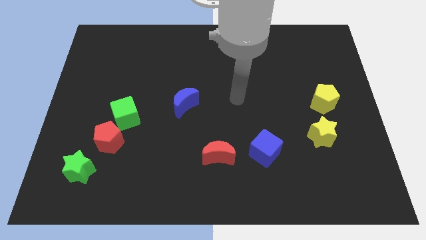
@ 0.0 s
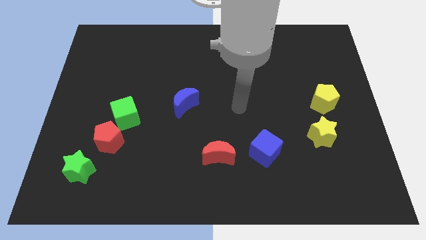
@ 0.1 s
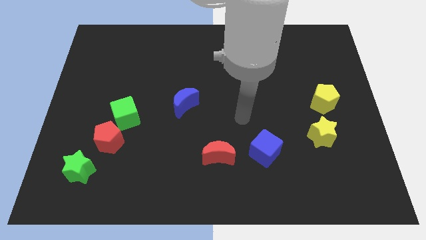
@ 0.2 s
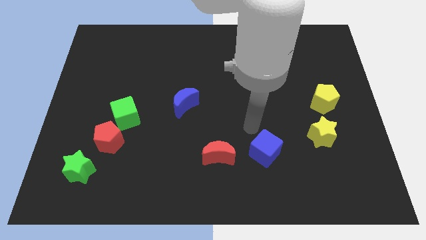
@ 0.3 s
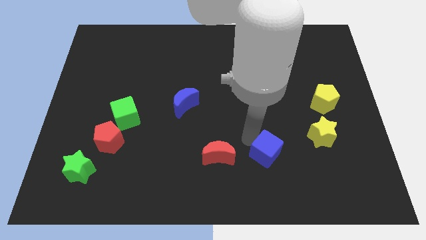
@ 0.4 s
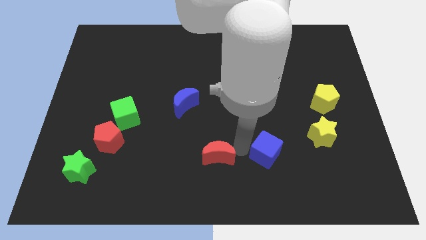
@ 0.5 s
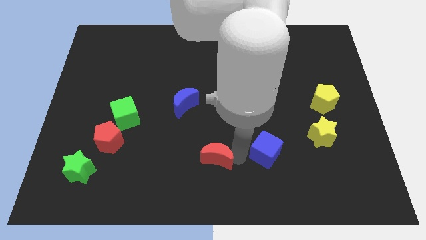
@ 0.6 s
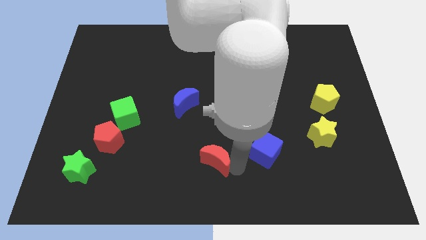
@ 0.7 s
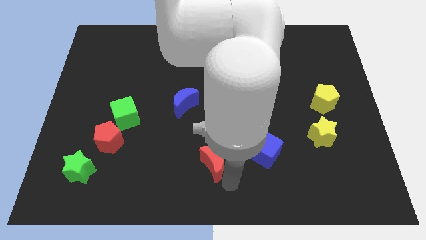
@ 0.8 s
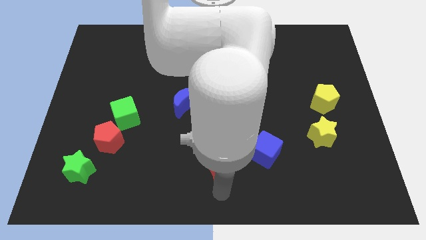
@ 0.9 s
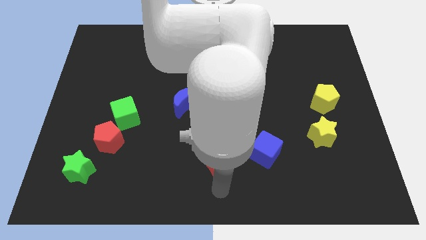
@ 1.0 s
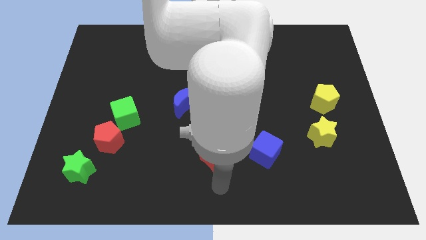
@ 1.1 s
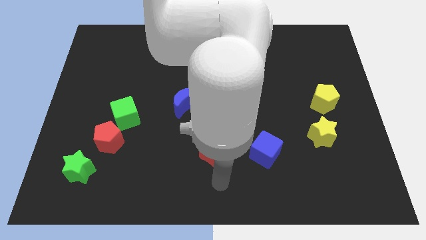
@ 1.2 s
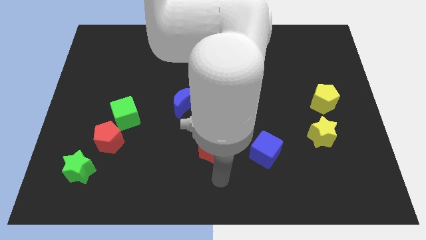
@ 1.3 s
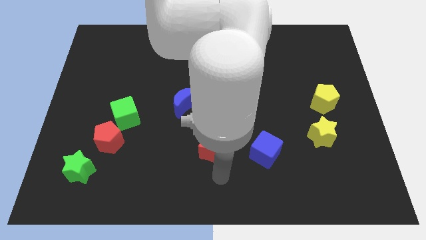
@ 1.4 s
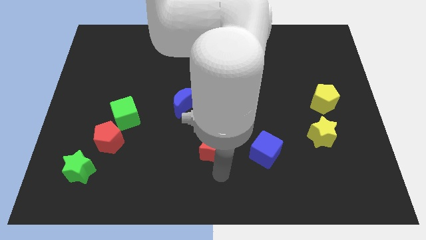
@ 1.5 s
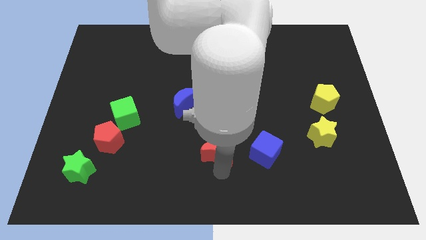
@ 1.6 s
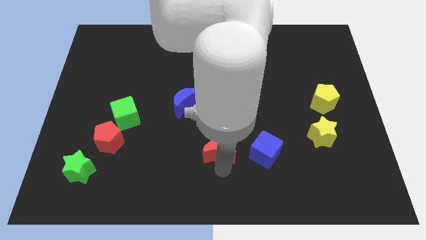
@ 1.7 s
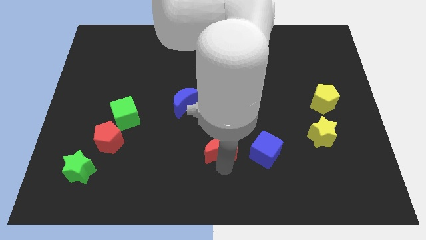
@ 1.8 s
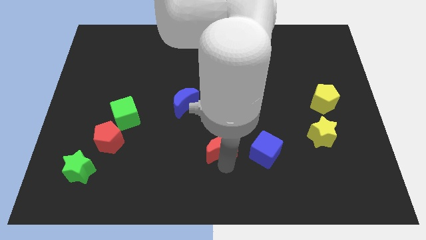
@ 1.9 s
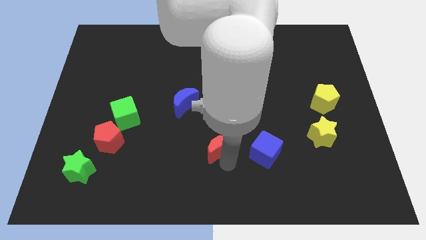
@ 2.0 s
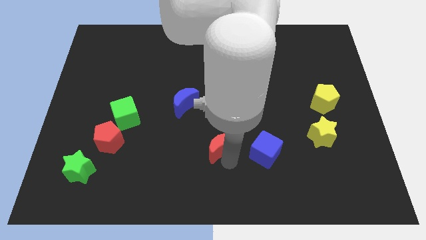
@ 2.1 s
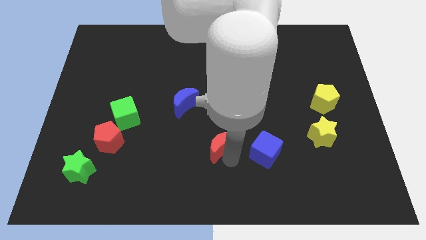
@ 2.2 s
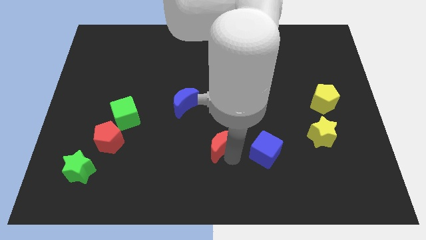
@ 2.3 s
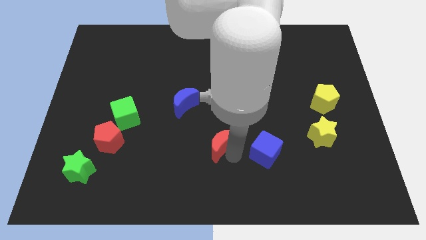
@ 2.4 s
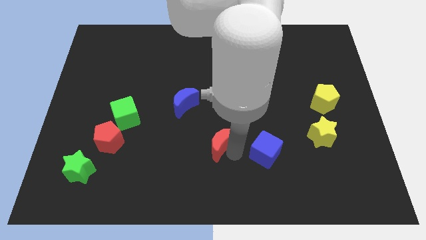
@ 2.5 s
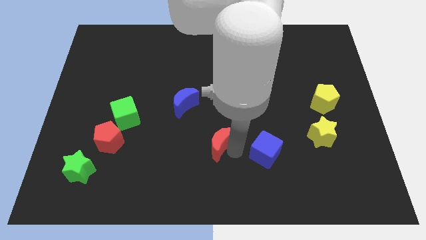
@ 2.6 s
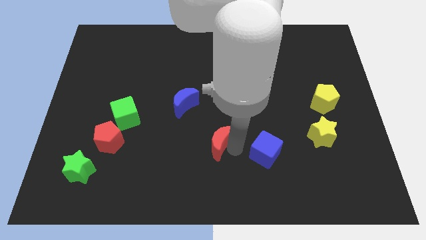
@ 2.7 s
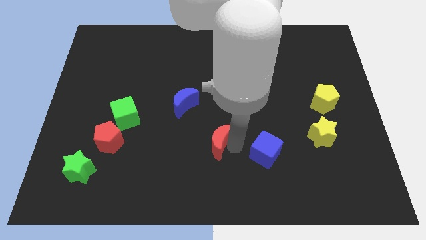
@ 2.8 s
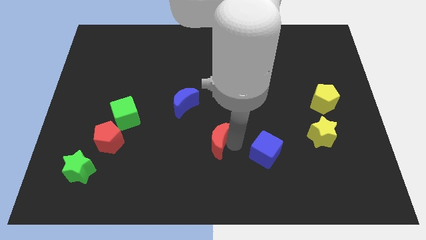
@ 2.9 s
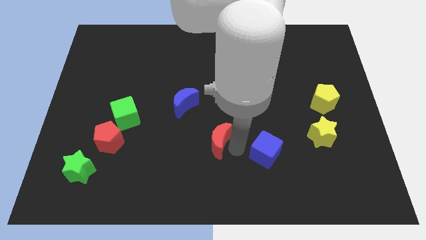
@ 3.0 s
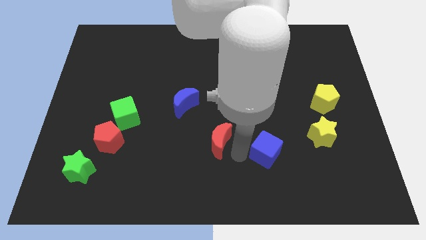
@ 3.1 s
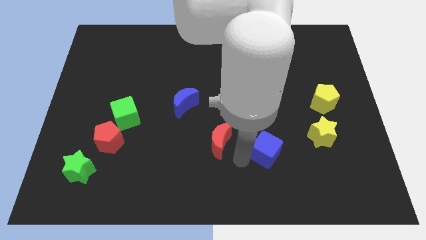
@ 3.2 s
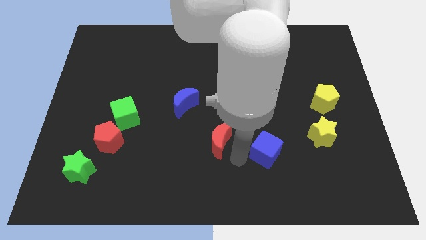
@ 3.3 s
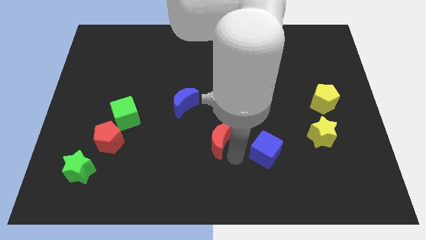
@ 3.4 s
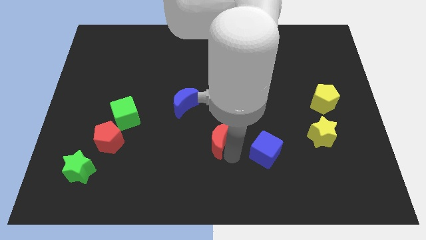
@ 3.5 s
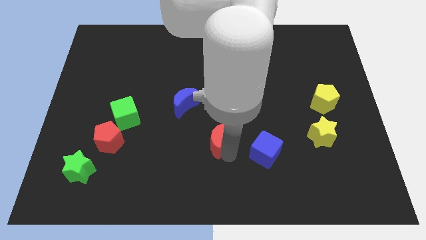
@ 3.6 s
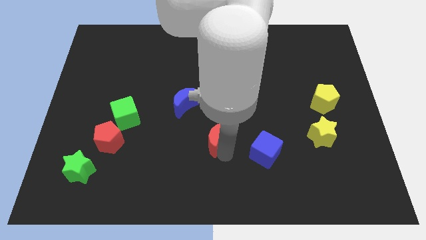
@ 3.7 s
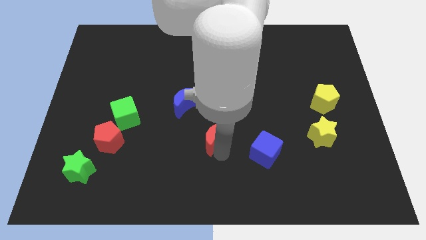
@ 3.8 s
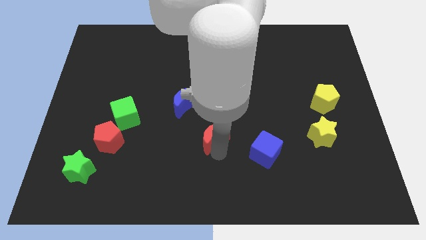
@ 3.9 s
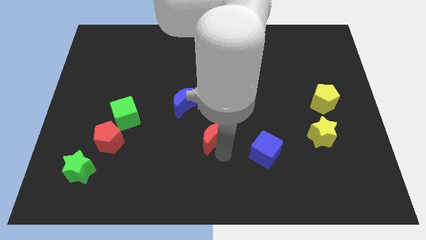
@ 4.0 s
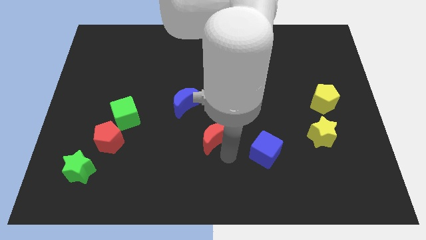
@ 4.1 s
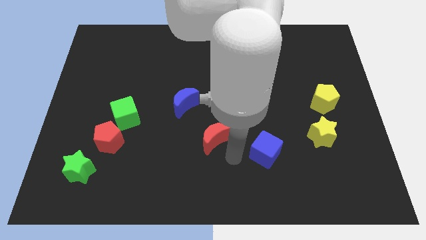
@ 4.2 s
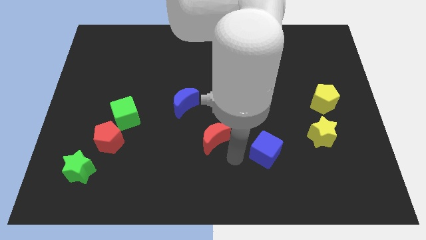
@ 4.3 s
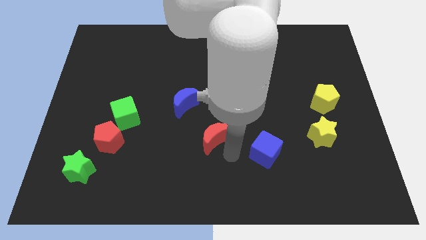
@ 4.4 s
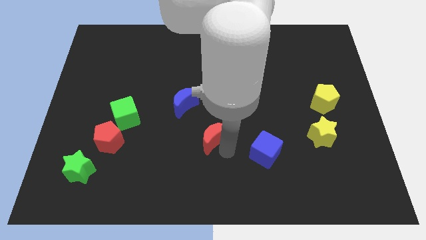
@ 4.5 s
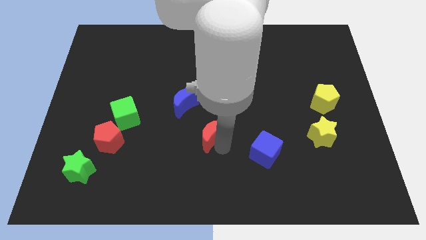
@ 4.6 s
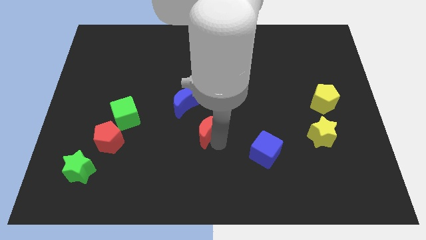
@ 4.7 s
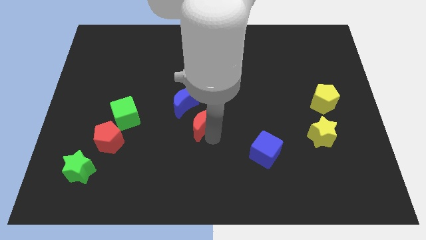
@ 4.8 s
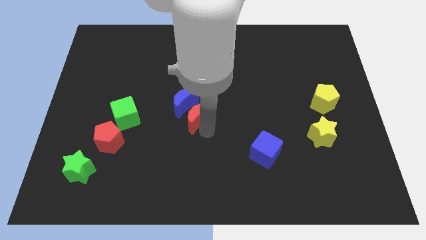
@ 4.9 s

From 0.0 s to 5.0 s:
put the red moon next to the blue moon

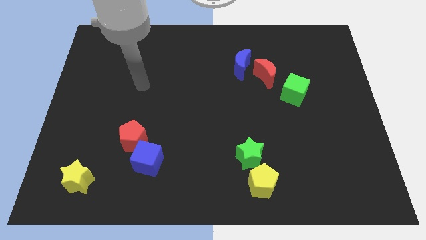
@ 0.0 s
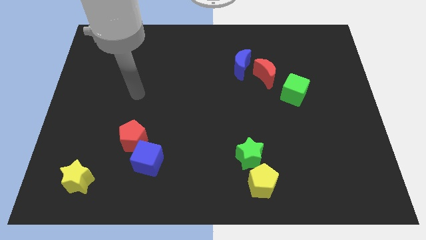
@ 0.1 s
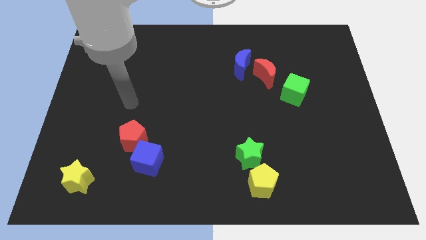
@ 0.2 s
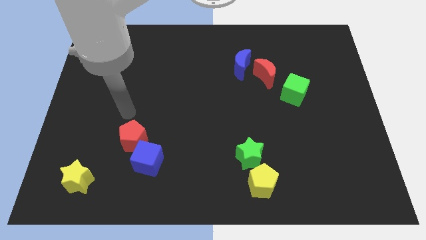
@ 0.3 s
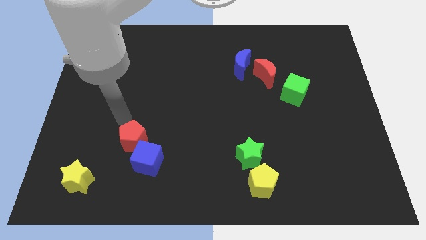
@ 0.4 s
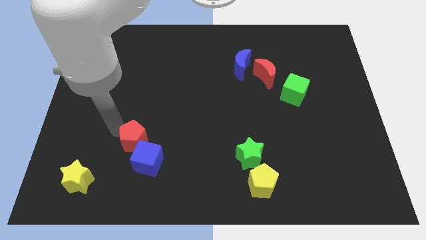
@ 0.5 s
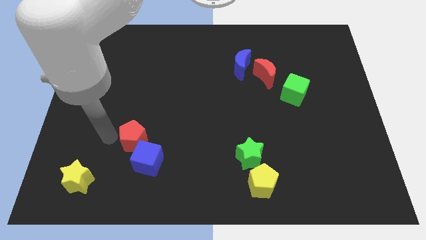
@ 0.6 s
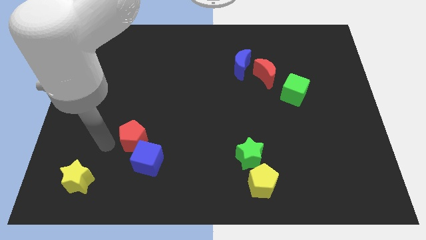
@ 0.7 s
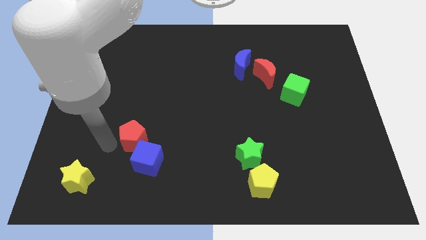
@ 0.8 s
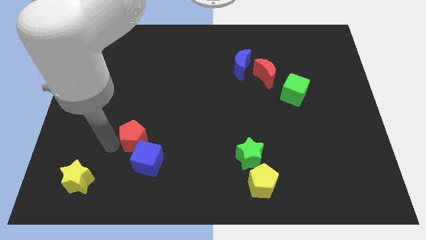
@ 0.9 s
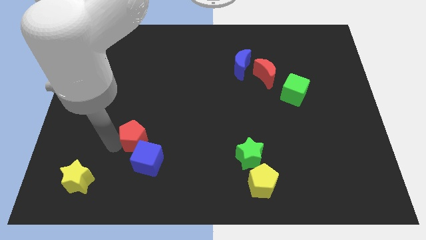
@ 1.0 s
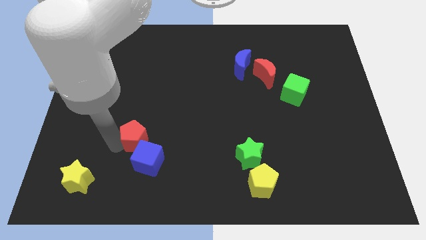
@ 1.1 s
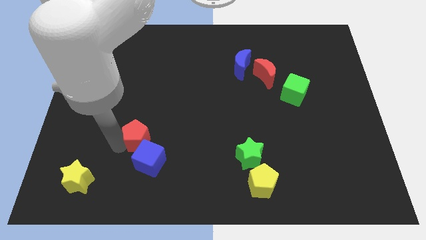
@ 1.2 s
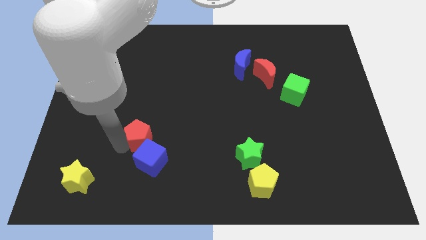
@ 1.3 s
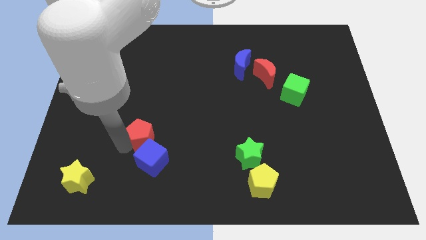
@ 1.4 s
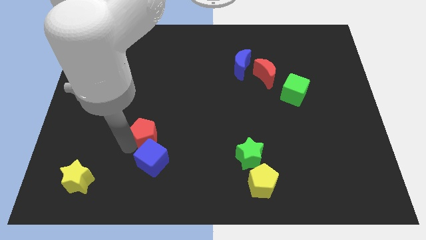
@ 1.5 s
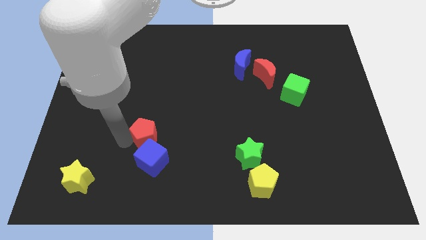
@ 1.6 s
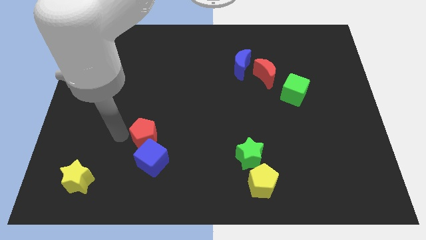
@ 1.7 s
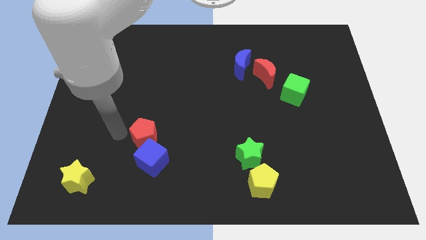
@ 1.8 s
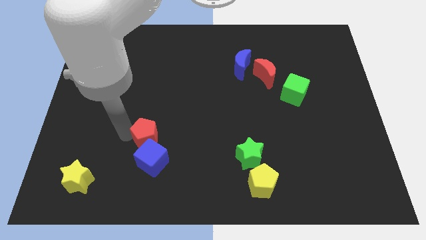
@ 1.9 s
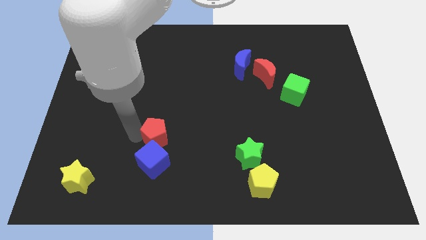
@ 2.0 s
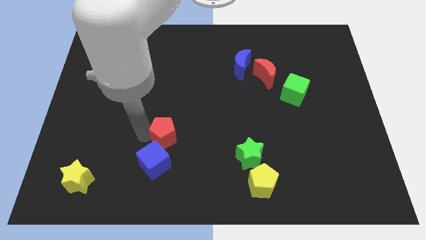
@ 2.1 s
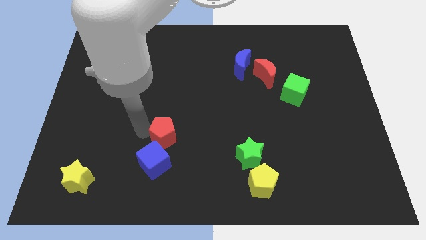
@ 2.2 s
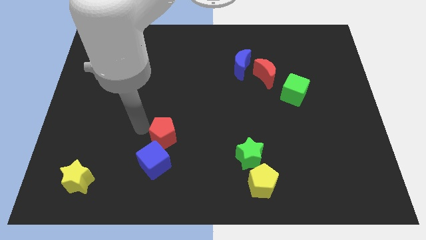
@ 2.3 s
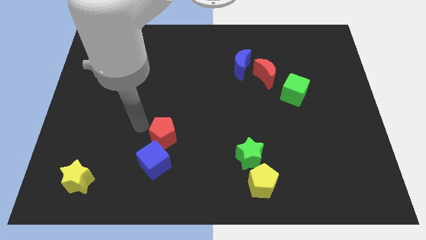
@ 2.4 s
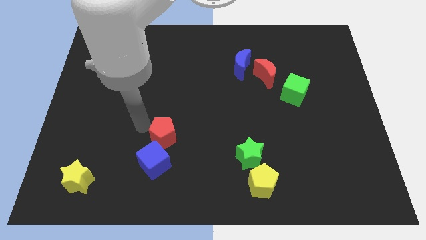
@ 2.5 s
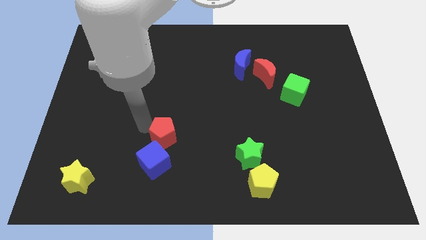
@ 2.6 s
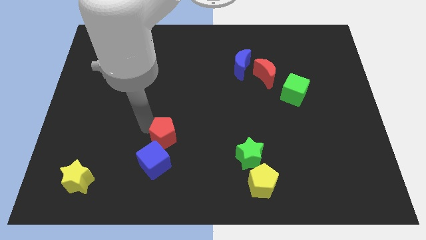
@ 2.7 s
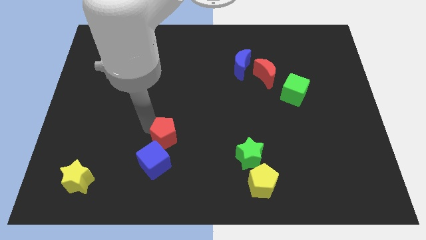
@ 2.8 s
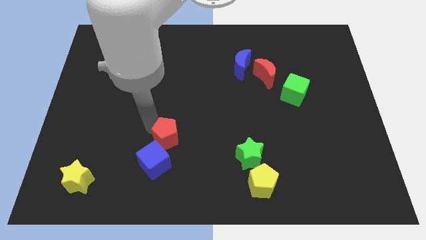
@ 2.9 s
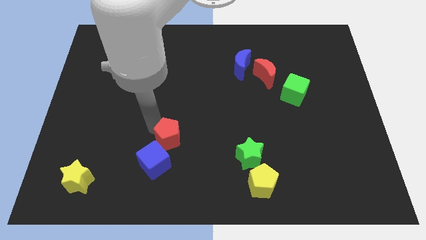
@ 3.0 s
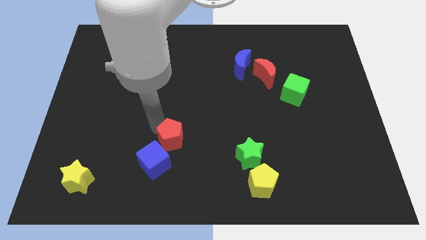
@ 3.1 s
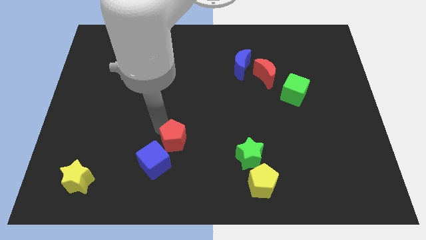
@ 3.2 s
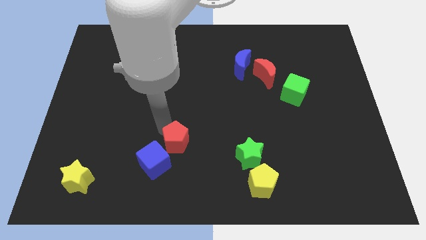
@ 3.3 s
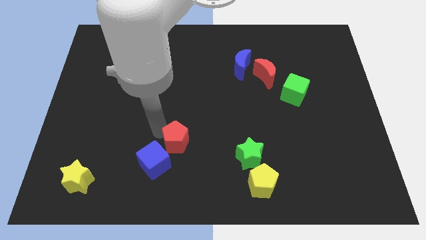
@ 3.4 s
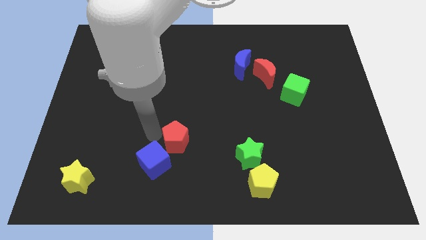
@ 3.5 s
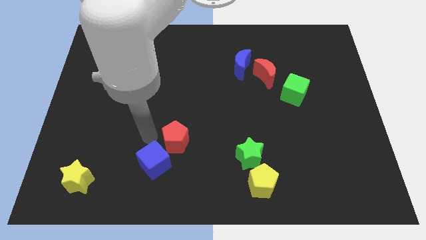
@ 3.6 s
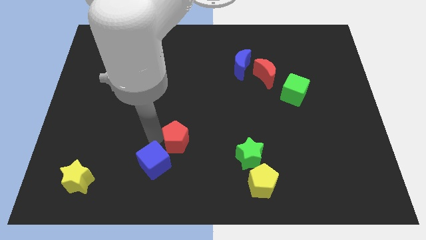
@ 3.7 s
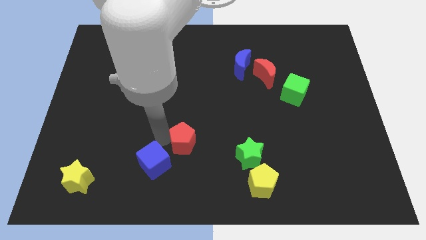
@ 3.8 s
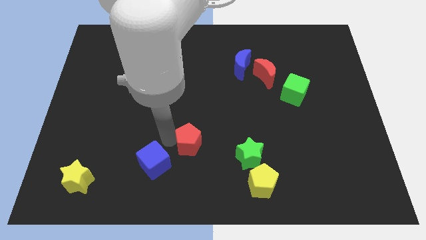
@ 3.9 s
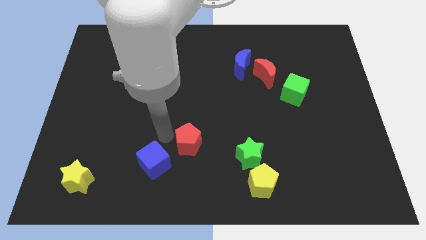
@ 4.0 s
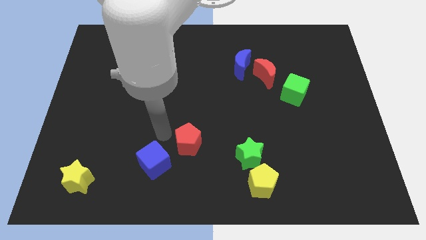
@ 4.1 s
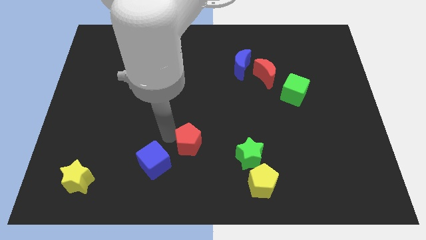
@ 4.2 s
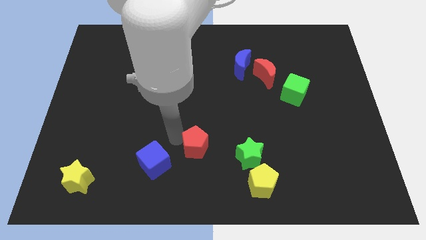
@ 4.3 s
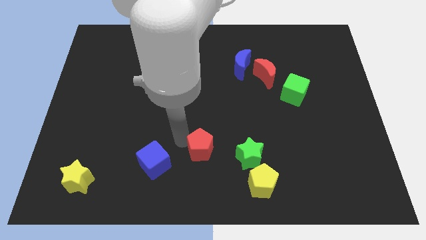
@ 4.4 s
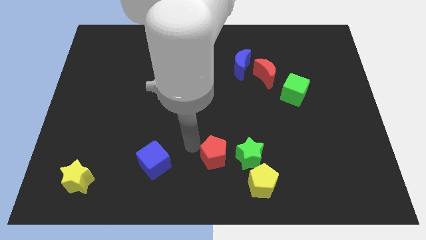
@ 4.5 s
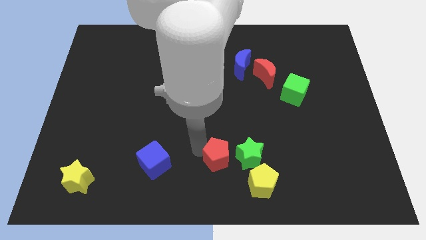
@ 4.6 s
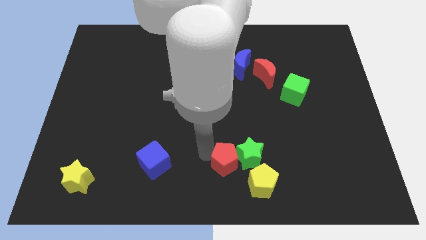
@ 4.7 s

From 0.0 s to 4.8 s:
put the red pentagon to the green star
